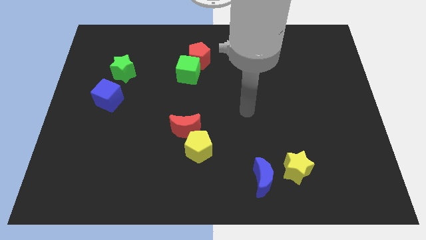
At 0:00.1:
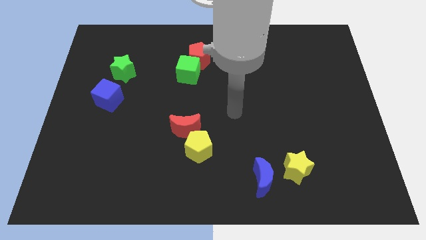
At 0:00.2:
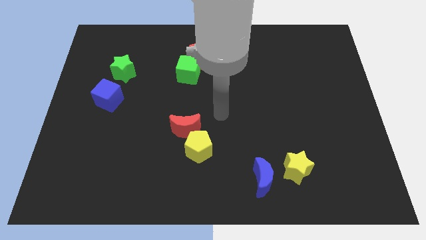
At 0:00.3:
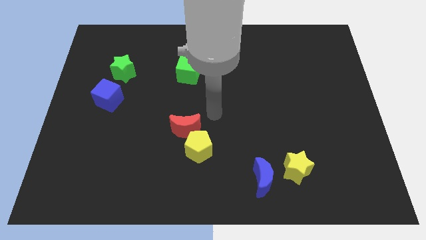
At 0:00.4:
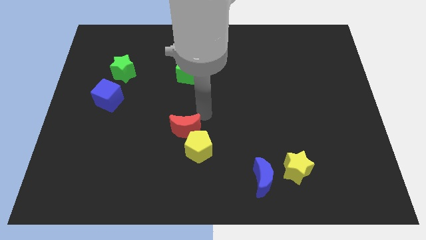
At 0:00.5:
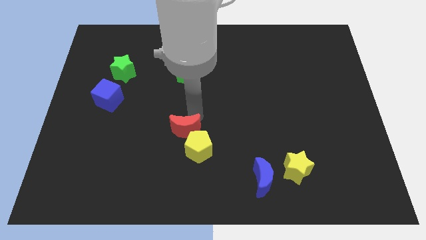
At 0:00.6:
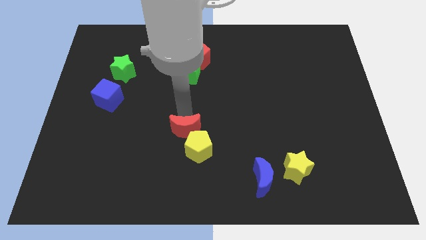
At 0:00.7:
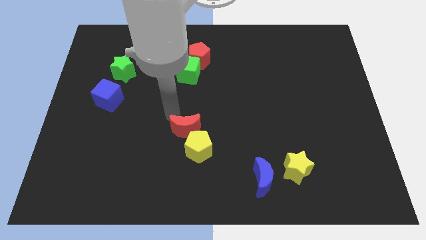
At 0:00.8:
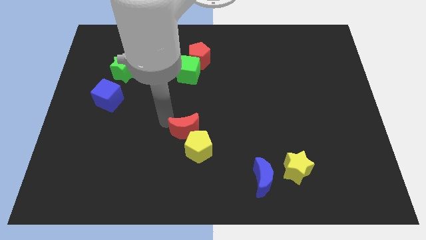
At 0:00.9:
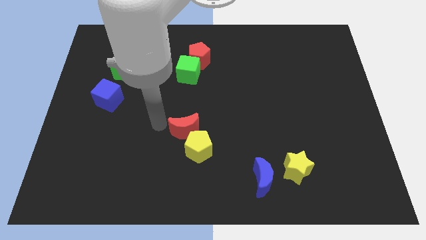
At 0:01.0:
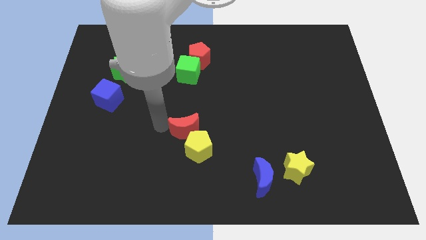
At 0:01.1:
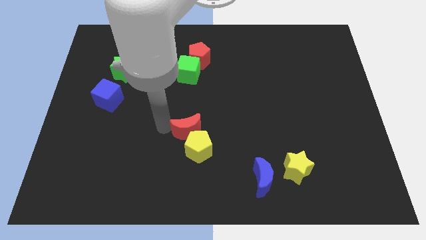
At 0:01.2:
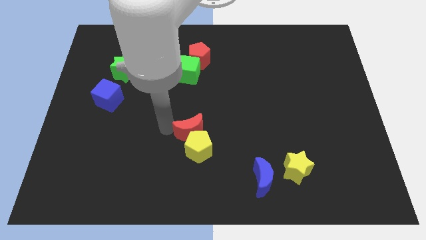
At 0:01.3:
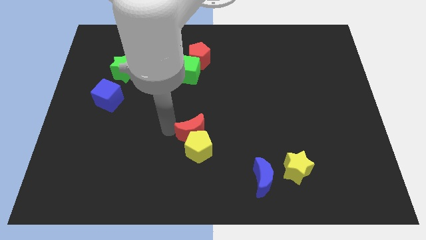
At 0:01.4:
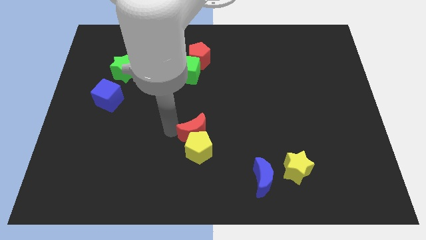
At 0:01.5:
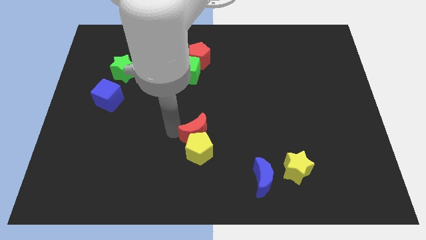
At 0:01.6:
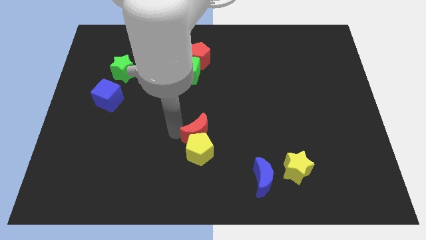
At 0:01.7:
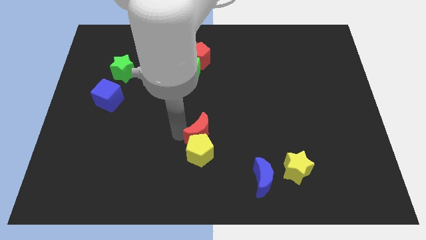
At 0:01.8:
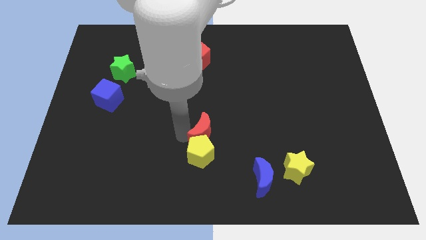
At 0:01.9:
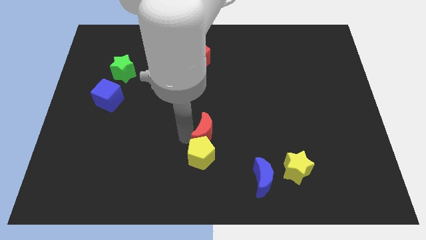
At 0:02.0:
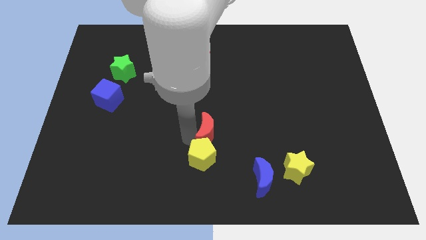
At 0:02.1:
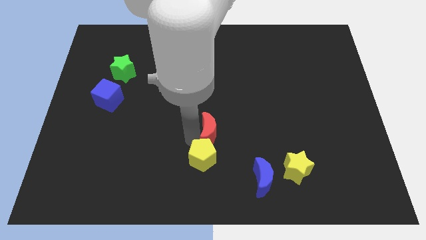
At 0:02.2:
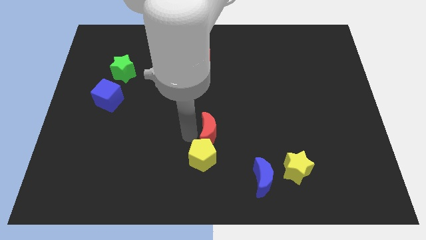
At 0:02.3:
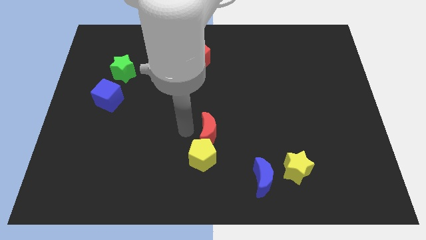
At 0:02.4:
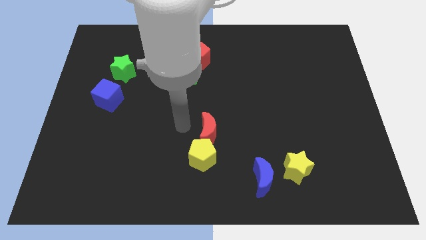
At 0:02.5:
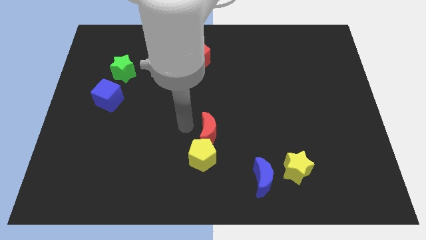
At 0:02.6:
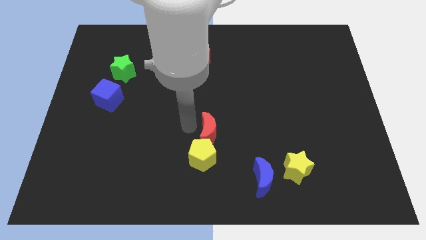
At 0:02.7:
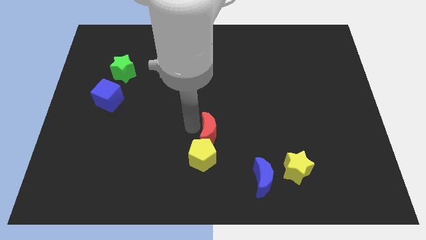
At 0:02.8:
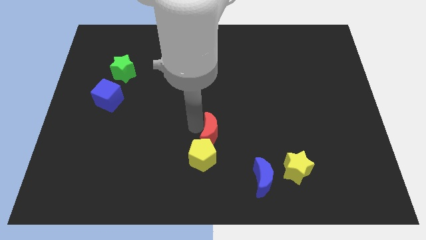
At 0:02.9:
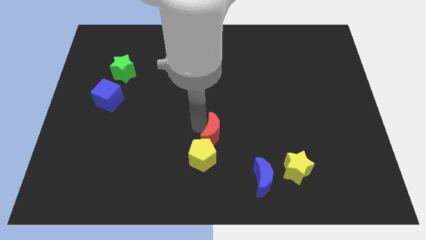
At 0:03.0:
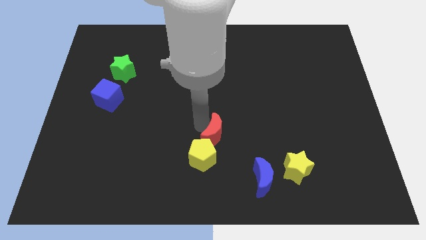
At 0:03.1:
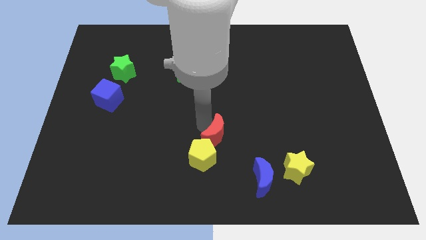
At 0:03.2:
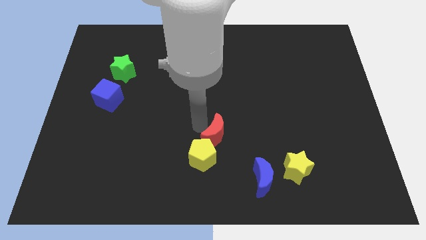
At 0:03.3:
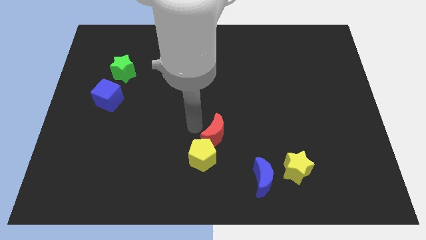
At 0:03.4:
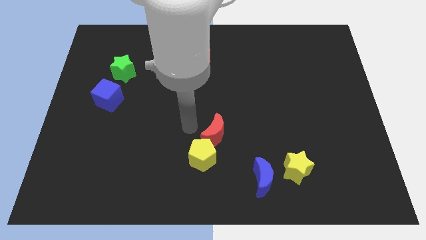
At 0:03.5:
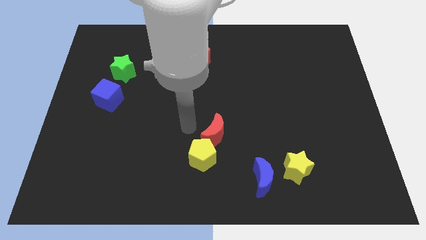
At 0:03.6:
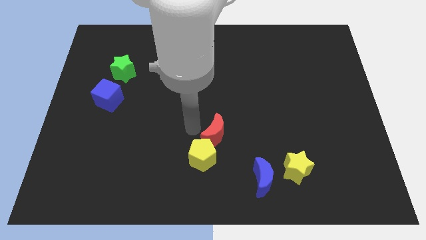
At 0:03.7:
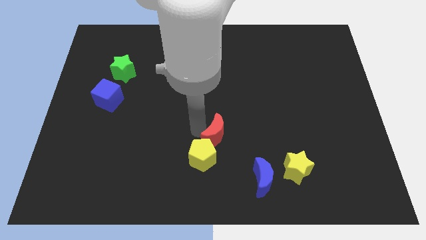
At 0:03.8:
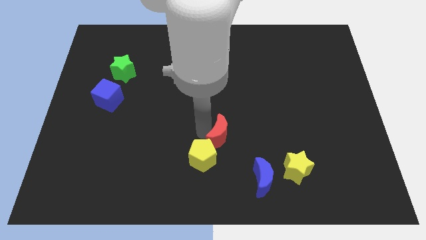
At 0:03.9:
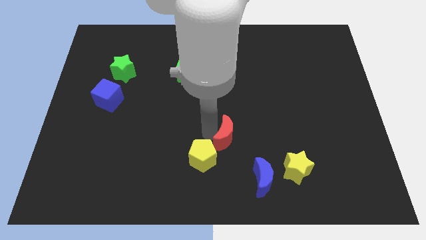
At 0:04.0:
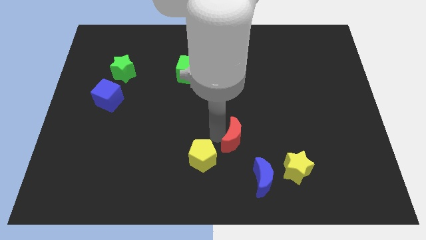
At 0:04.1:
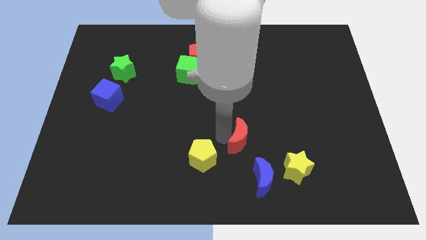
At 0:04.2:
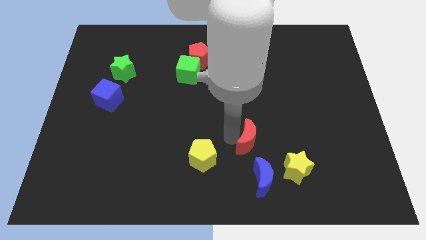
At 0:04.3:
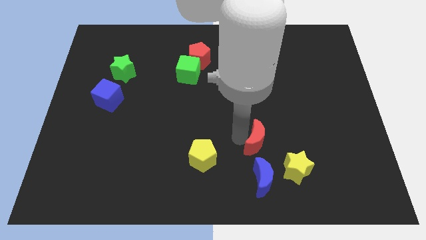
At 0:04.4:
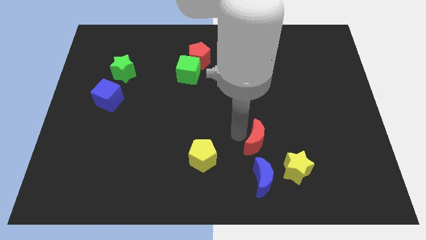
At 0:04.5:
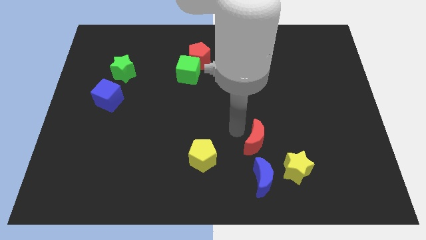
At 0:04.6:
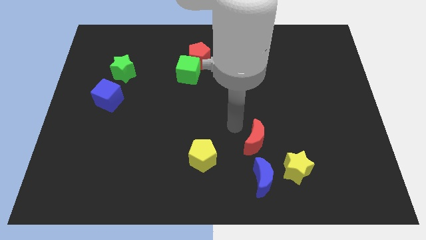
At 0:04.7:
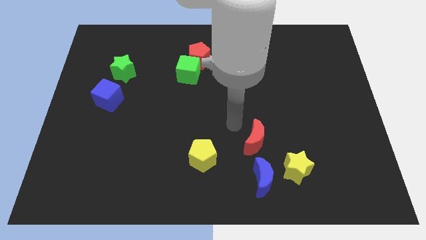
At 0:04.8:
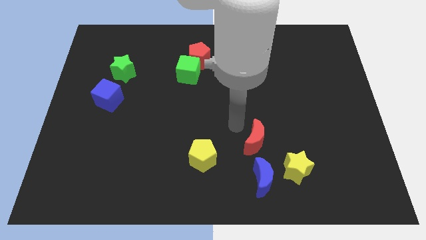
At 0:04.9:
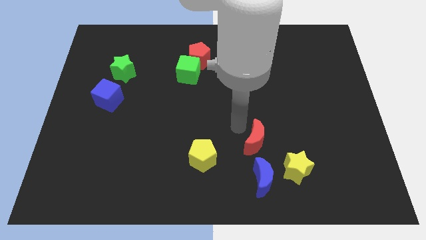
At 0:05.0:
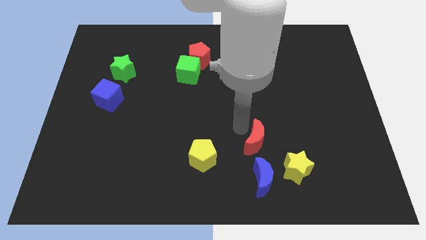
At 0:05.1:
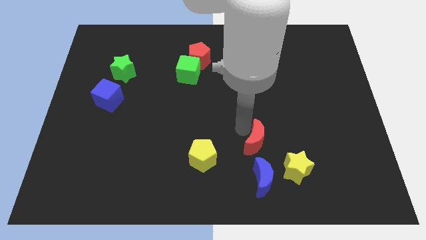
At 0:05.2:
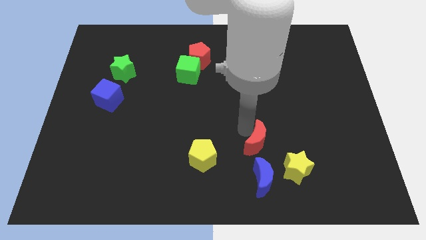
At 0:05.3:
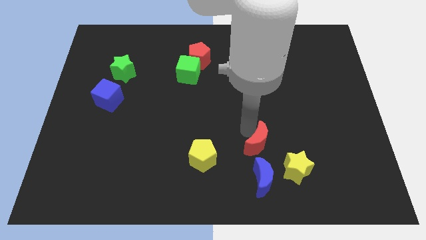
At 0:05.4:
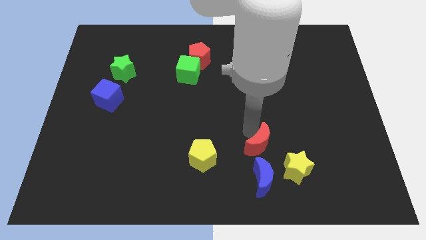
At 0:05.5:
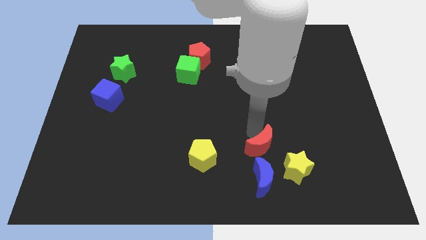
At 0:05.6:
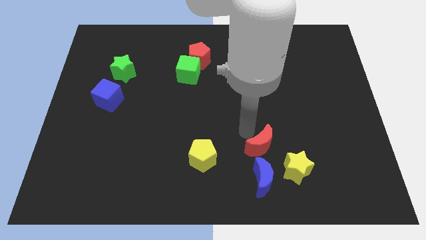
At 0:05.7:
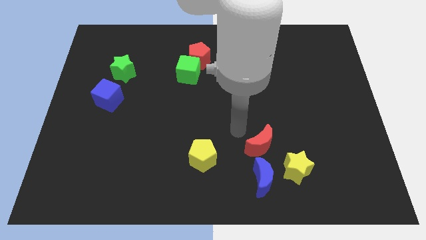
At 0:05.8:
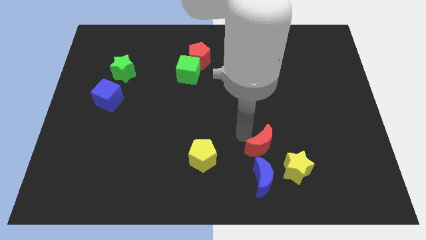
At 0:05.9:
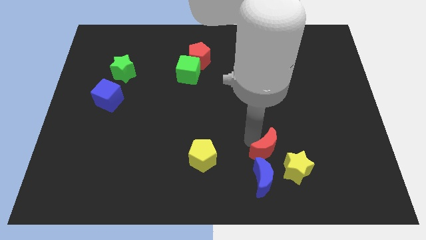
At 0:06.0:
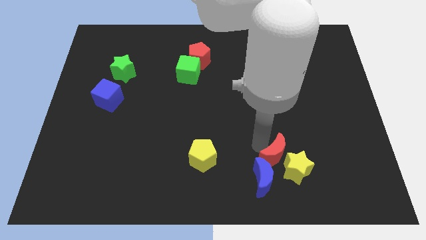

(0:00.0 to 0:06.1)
move the red moon close to the yellow star
